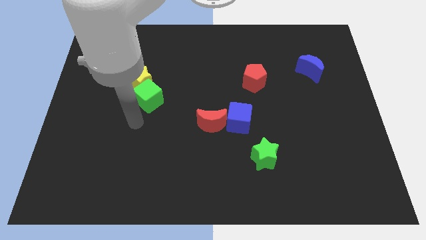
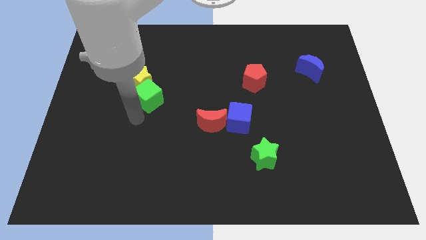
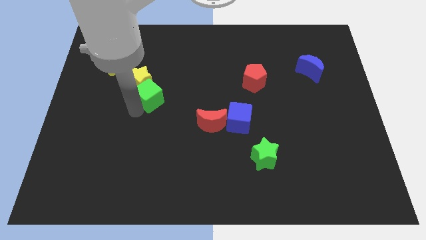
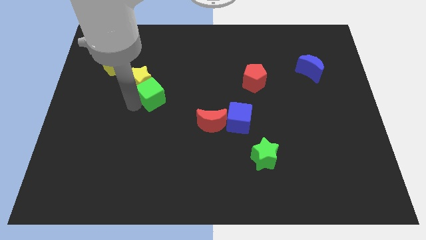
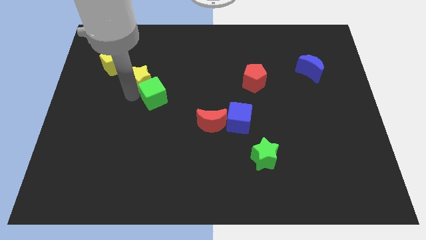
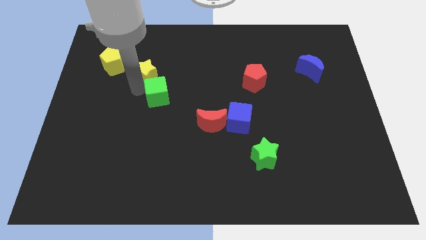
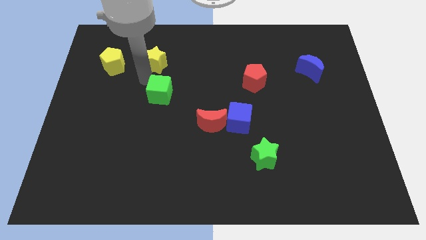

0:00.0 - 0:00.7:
move the green cube away from the yellow star

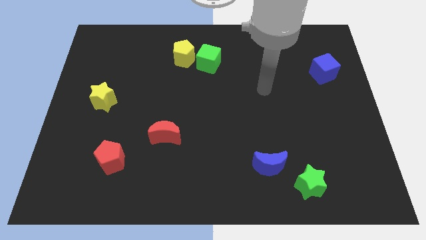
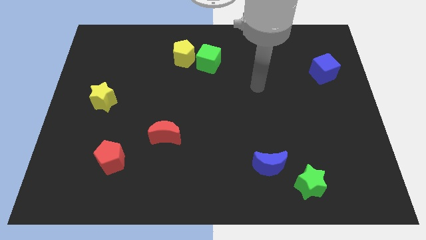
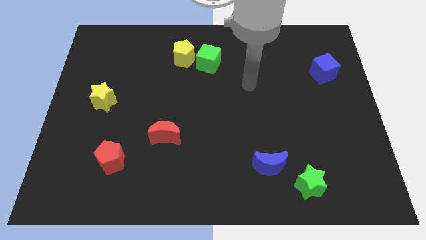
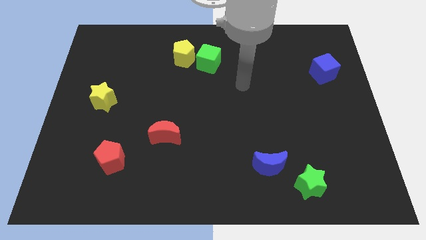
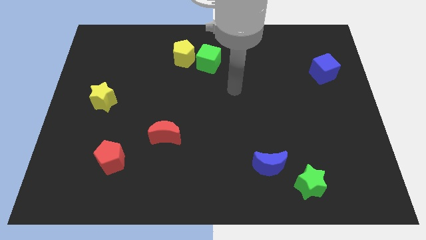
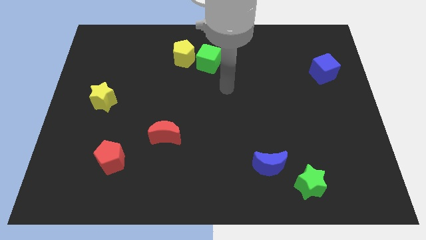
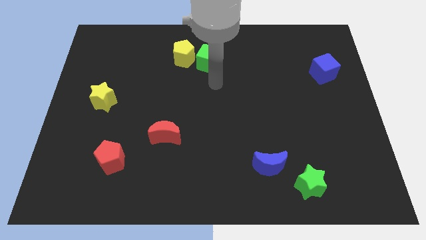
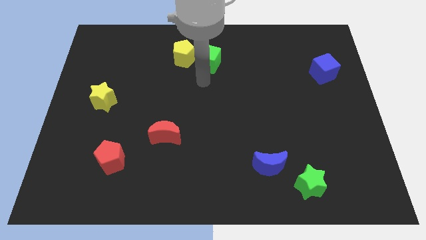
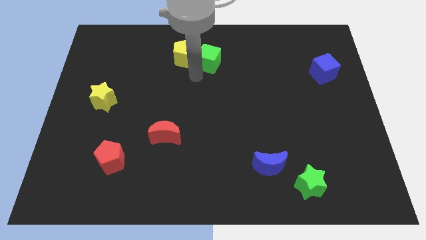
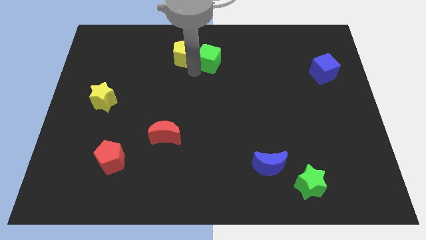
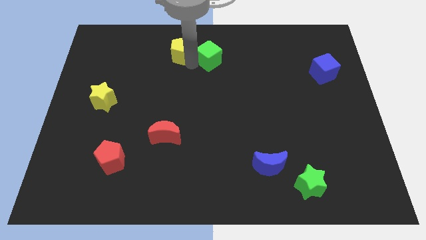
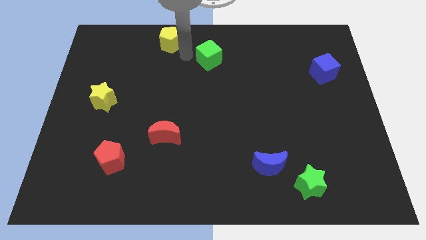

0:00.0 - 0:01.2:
separate the green cube from the yellow pentagon

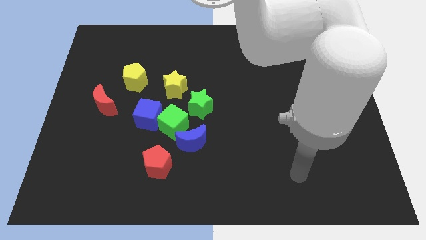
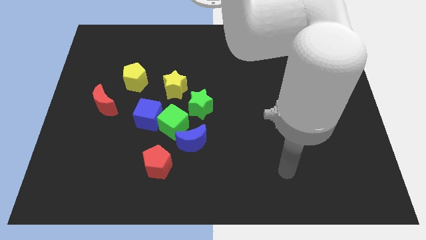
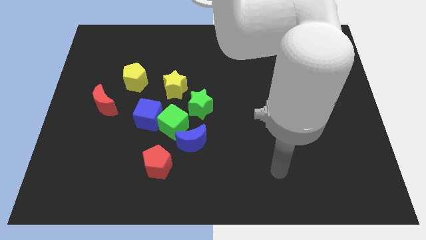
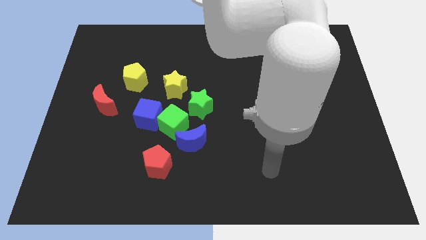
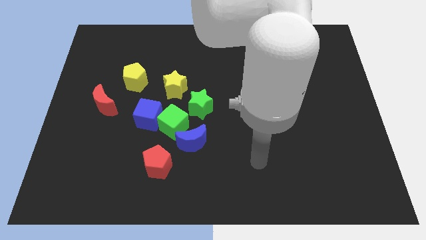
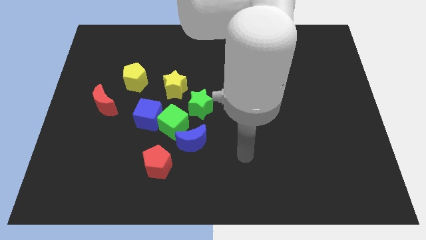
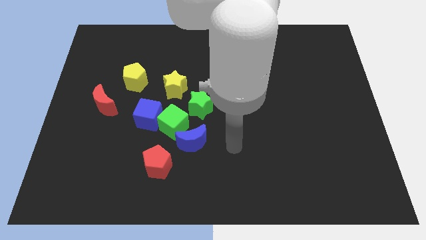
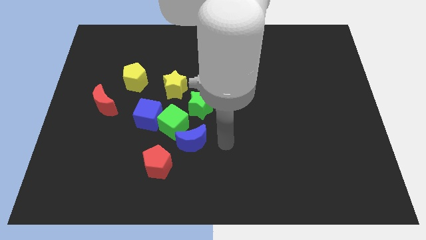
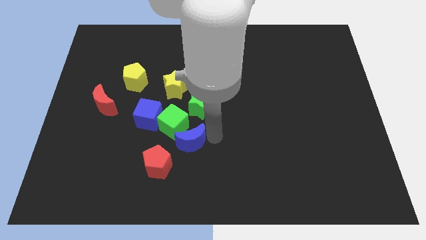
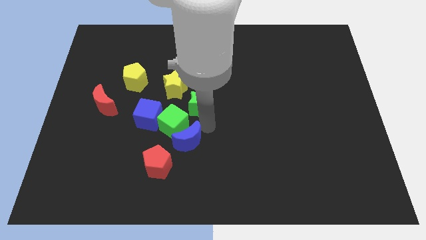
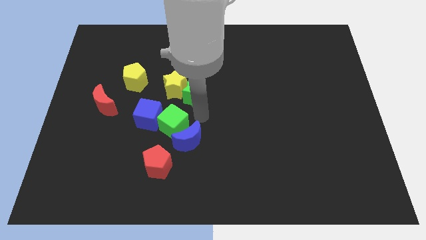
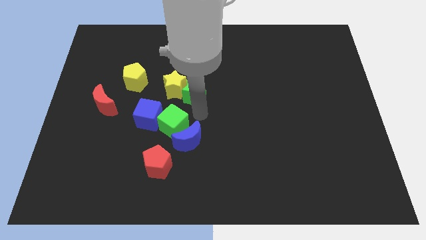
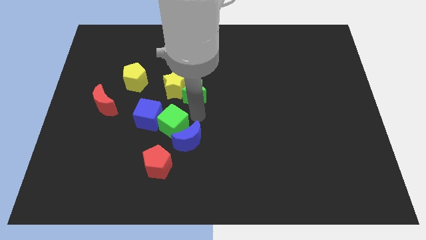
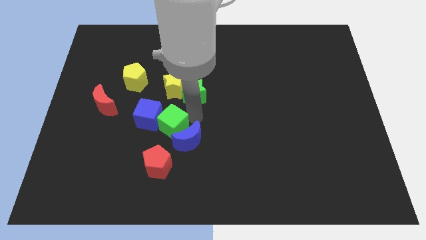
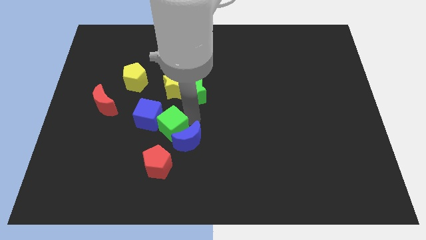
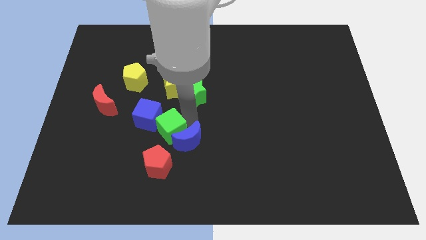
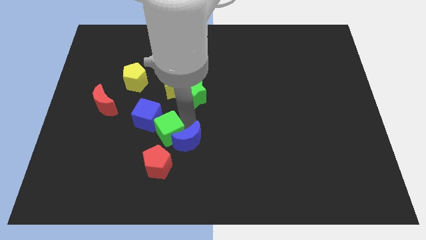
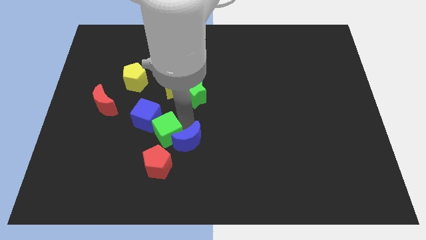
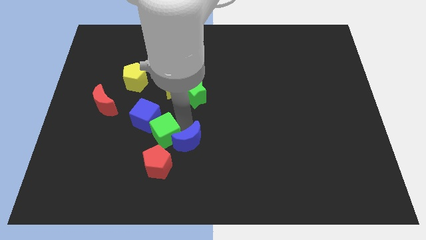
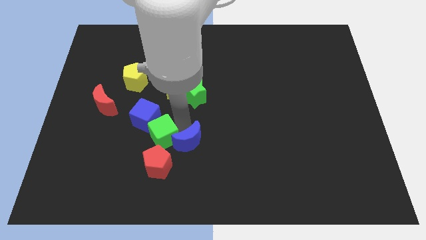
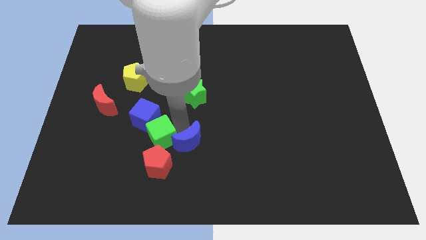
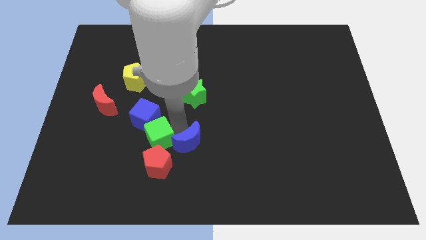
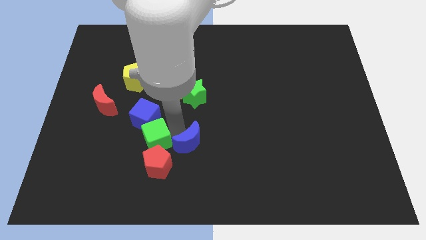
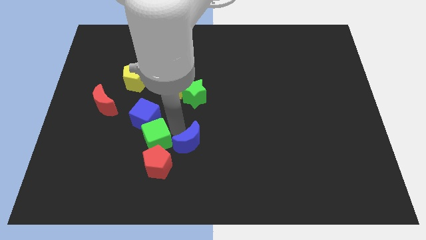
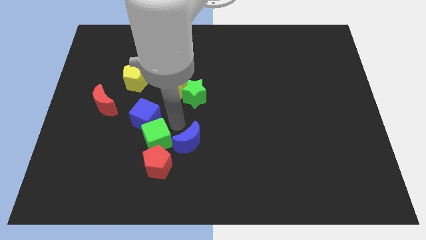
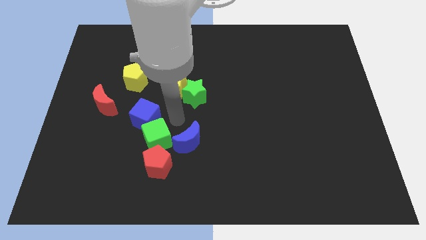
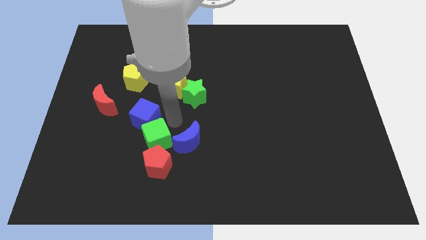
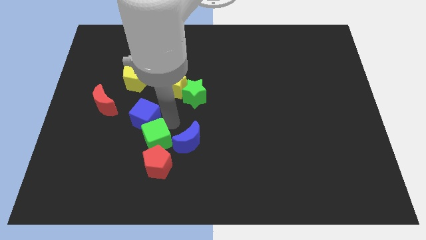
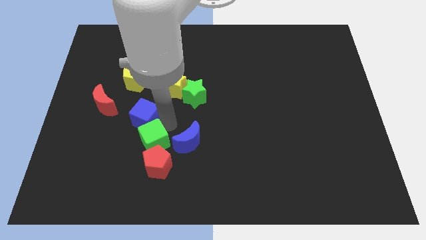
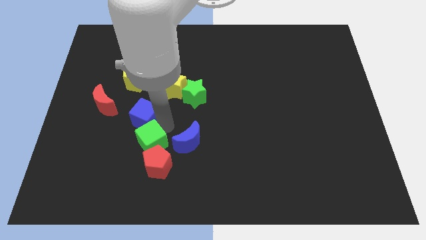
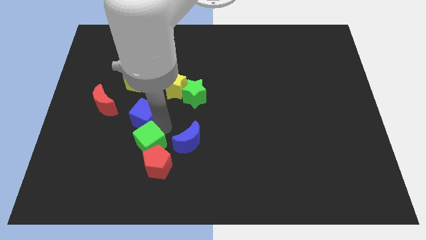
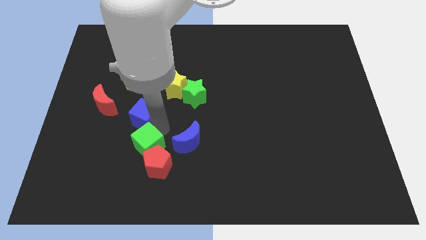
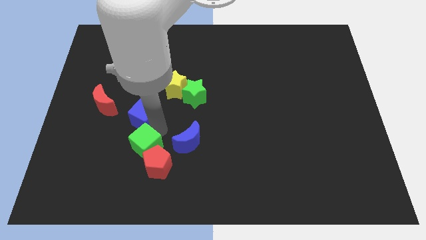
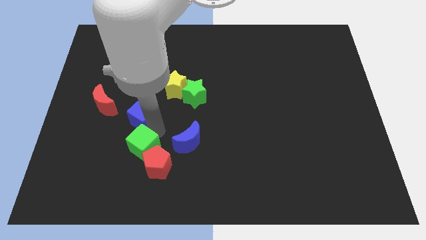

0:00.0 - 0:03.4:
pull the green cube apart from the blue cube, blue moon, and green star

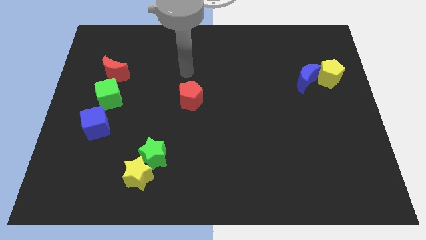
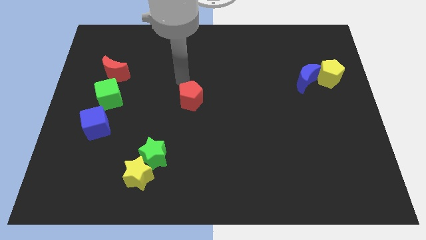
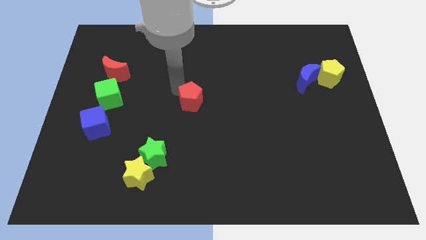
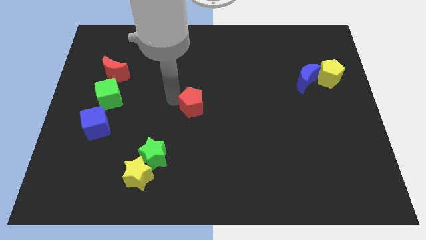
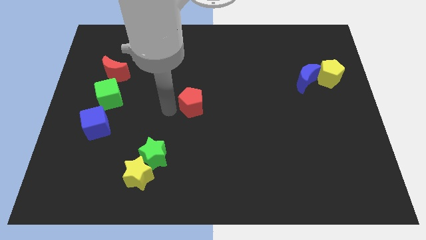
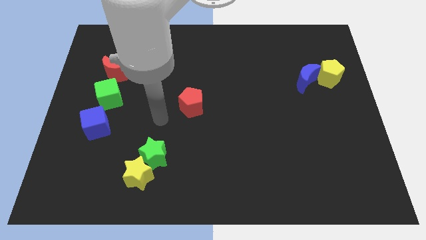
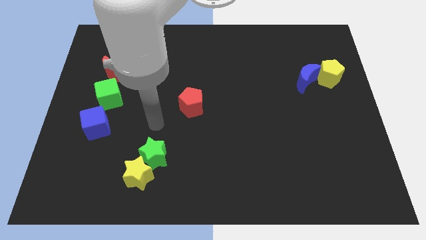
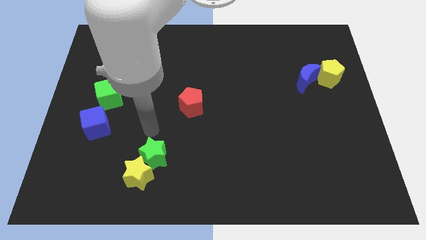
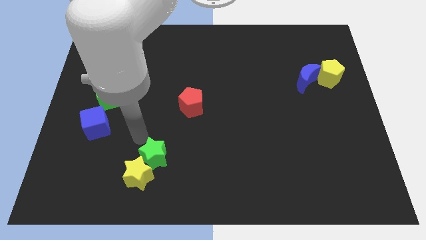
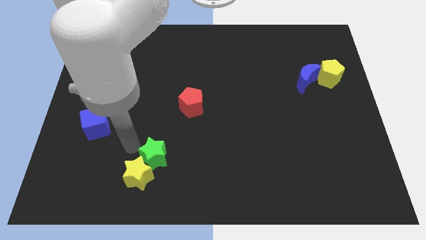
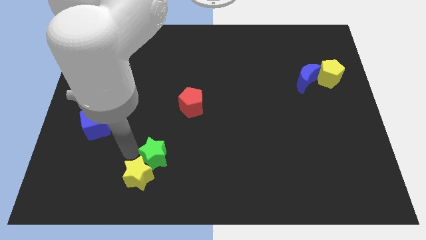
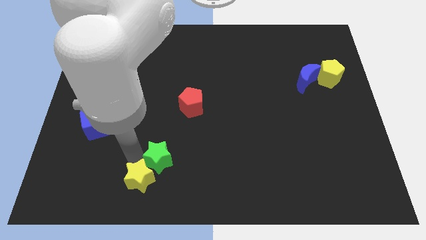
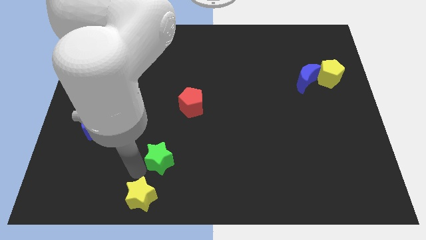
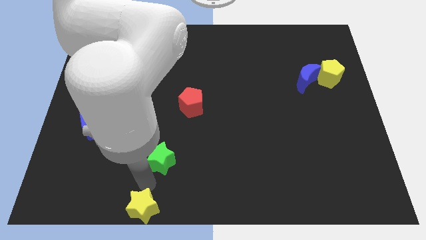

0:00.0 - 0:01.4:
separate the green star from the yellow star

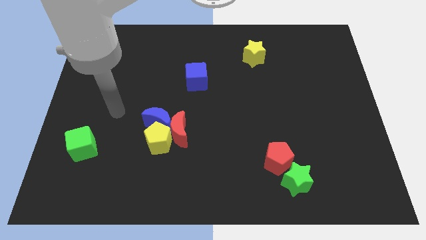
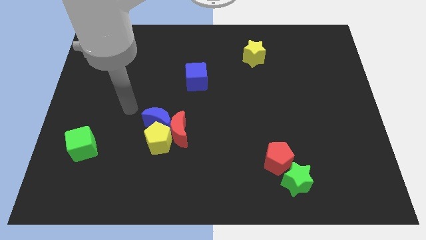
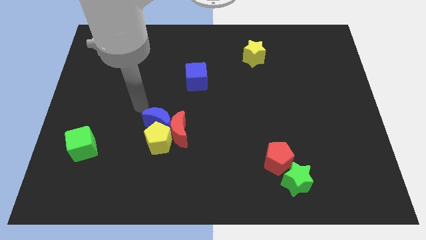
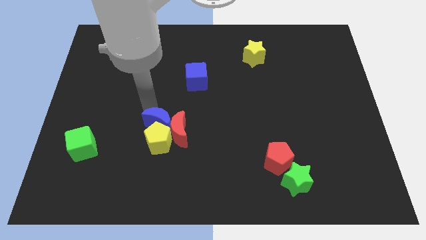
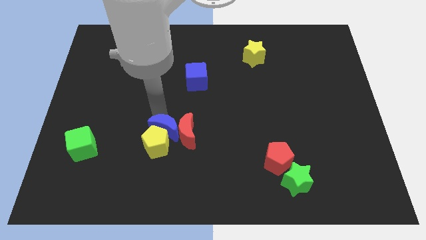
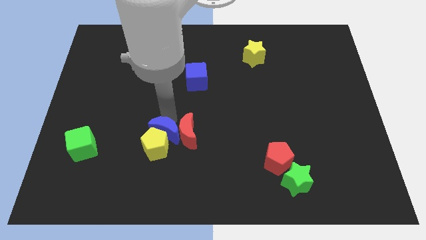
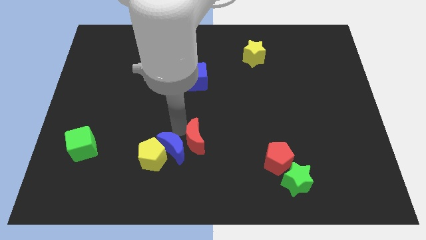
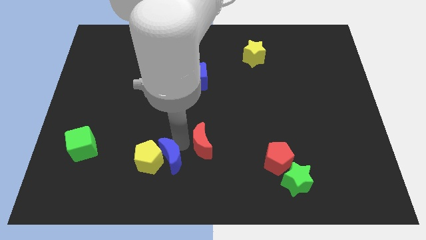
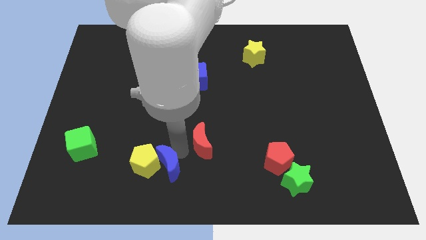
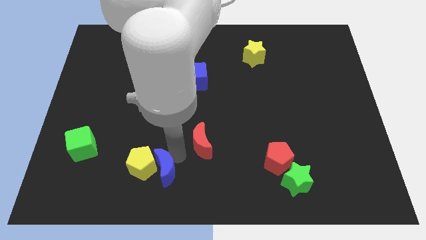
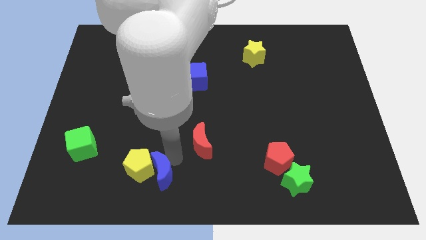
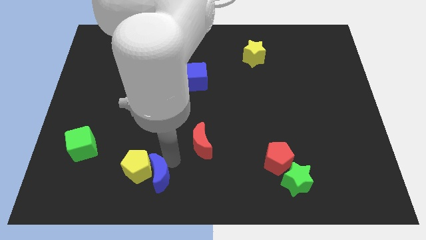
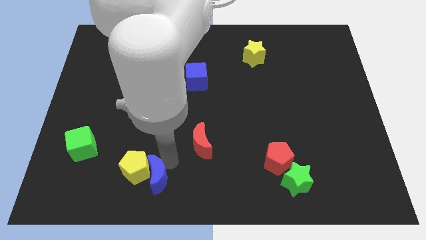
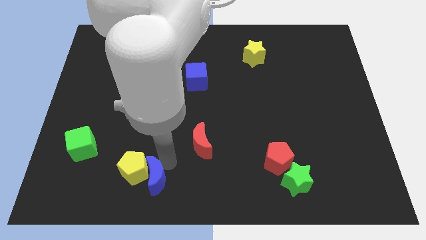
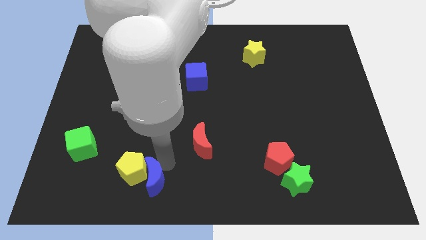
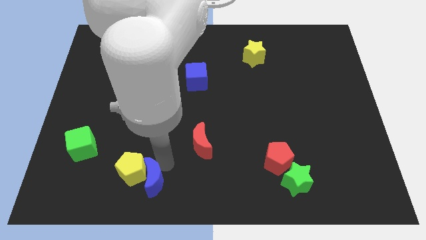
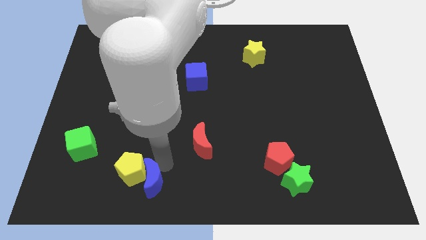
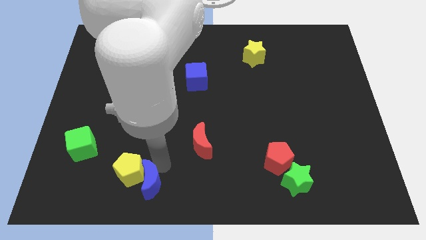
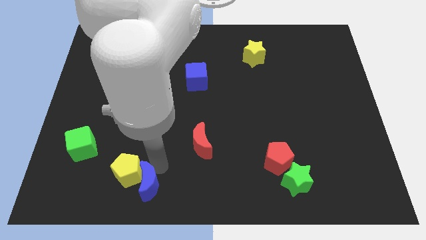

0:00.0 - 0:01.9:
pull the yellow pentagon apart from the red moon and blue moon

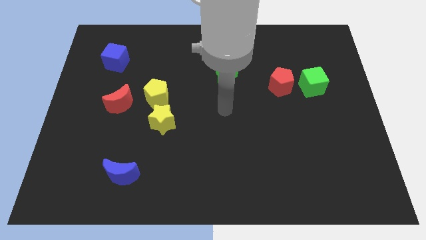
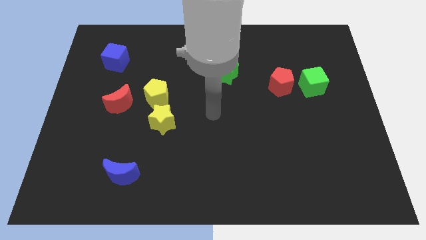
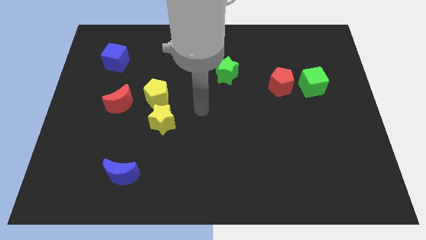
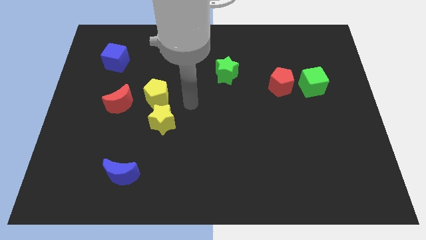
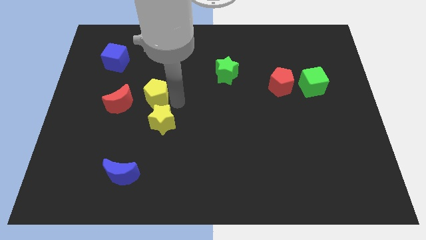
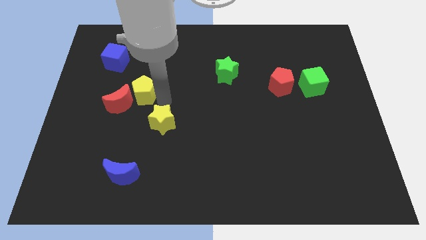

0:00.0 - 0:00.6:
move the yellow star away from the yellow pentagon

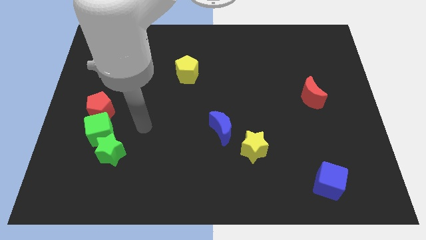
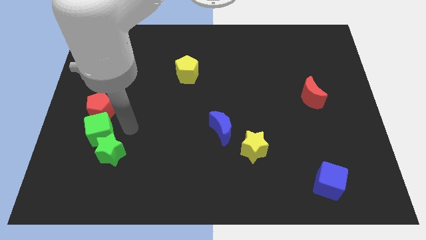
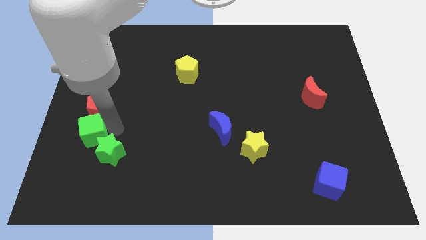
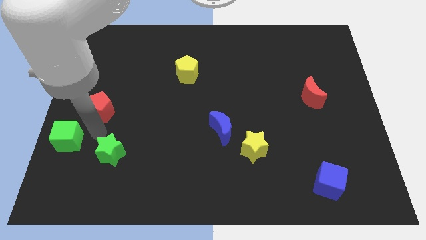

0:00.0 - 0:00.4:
pull the green star apart from the green cube
